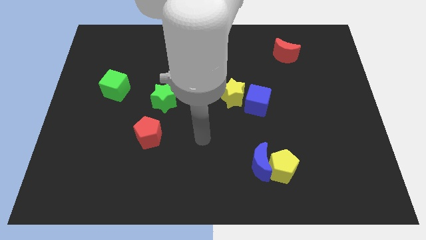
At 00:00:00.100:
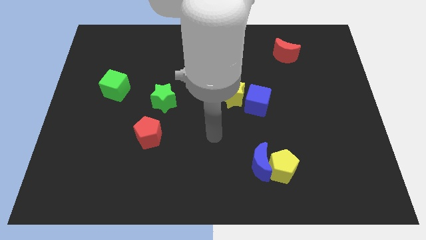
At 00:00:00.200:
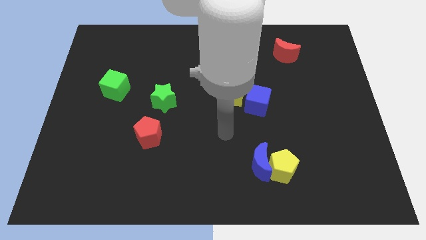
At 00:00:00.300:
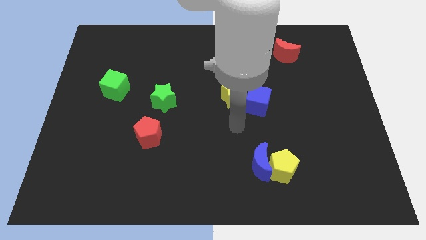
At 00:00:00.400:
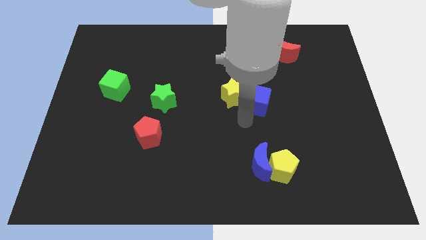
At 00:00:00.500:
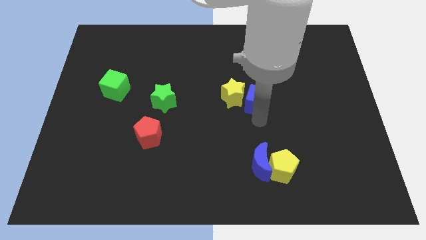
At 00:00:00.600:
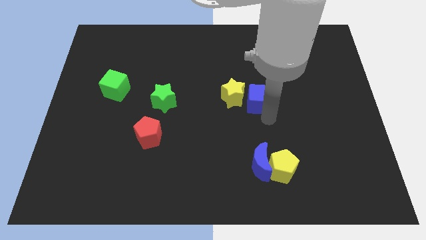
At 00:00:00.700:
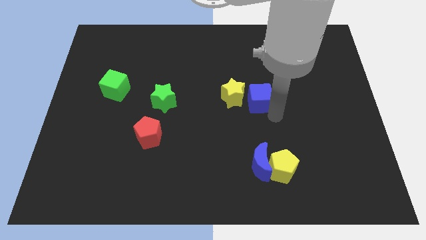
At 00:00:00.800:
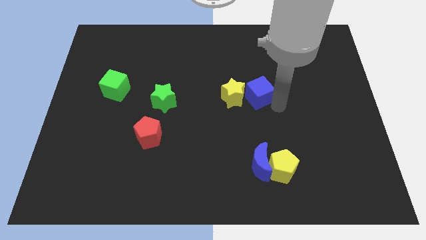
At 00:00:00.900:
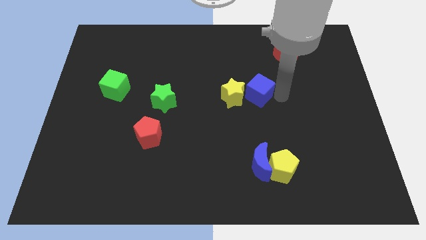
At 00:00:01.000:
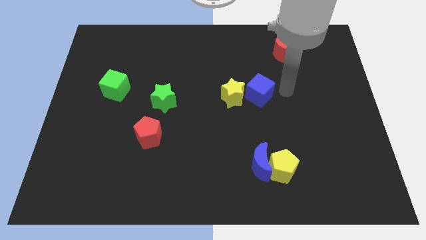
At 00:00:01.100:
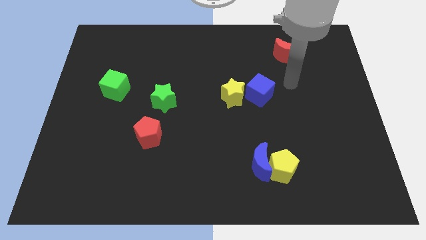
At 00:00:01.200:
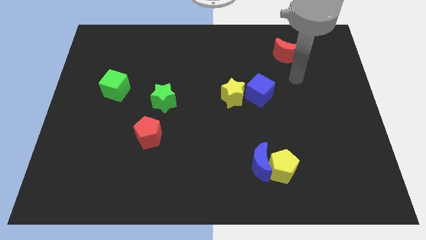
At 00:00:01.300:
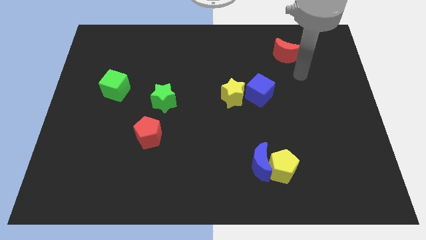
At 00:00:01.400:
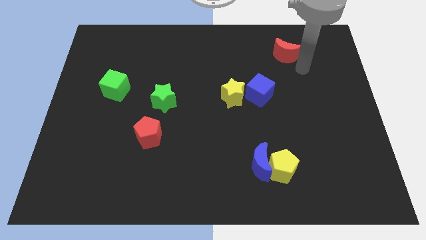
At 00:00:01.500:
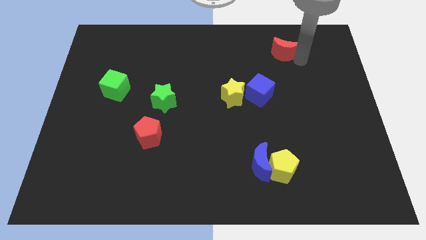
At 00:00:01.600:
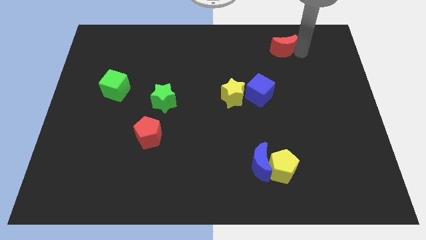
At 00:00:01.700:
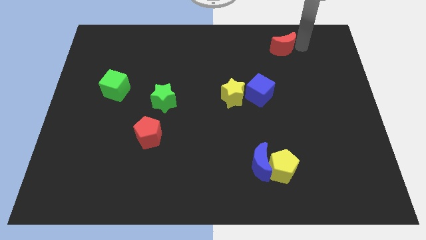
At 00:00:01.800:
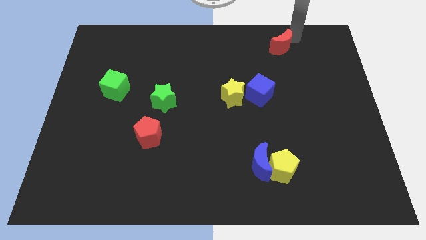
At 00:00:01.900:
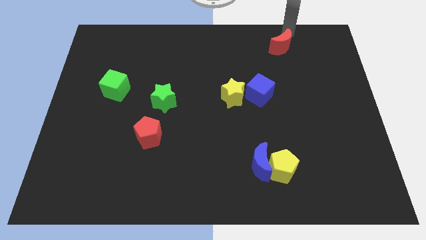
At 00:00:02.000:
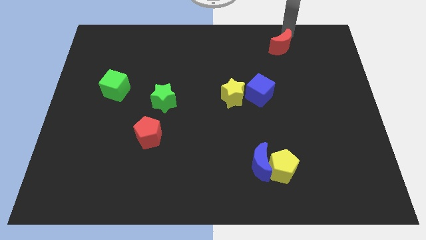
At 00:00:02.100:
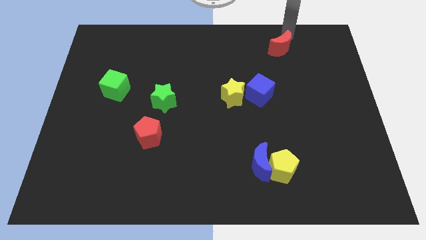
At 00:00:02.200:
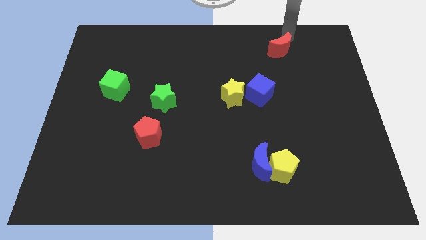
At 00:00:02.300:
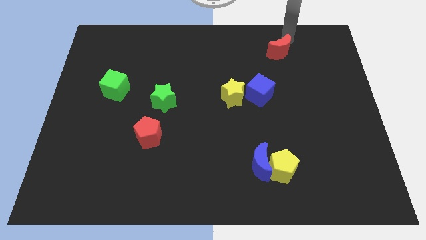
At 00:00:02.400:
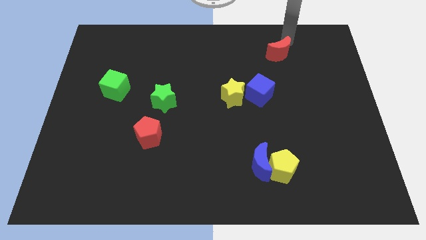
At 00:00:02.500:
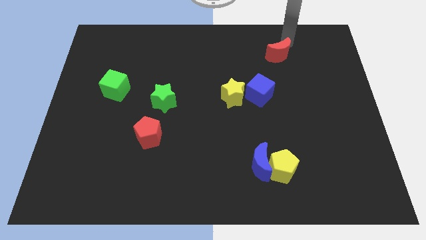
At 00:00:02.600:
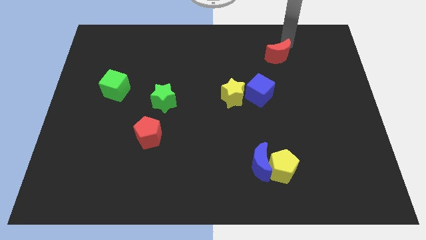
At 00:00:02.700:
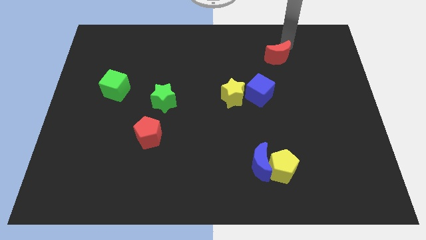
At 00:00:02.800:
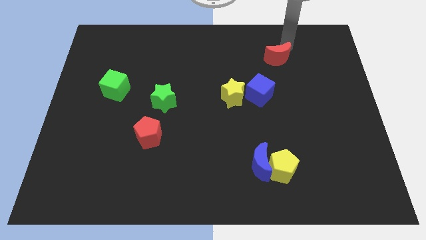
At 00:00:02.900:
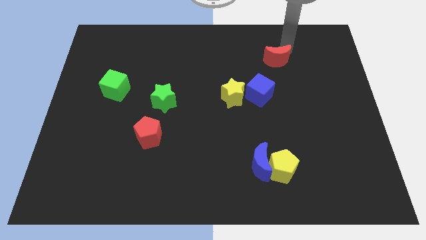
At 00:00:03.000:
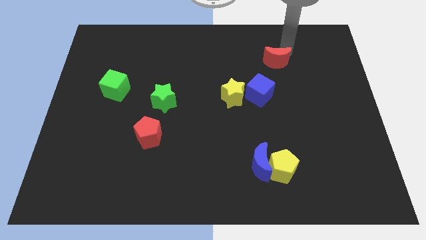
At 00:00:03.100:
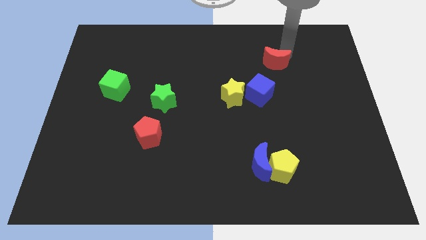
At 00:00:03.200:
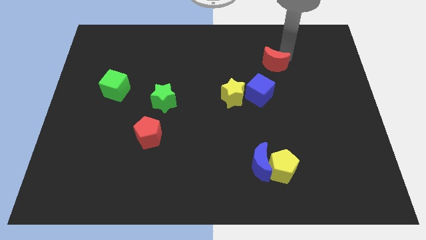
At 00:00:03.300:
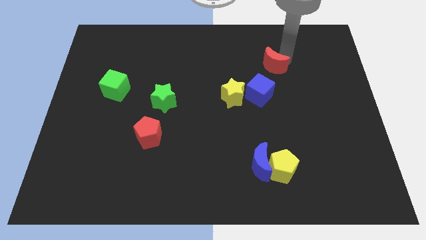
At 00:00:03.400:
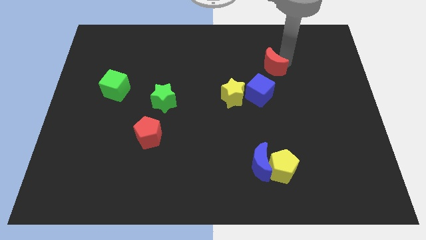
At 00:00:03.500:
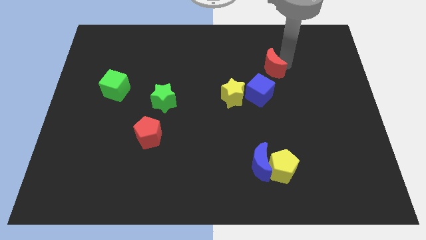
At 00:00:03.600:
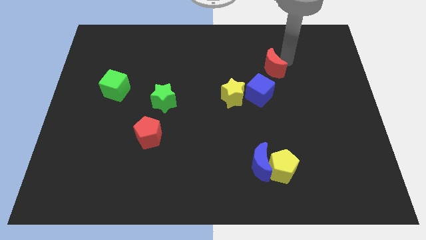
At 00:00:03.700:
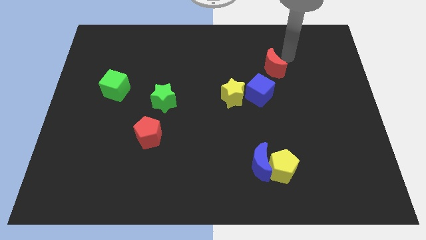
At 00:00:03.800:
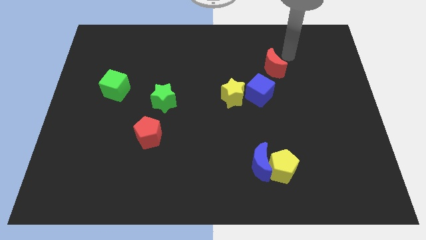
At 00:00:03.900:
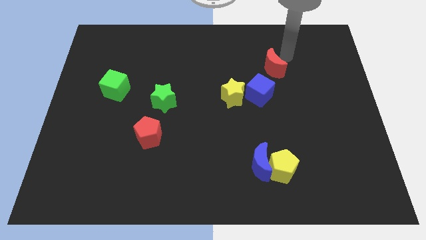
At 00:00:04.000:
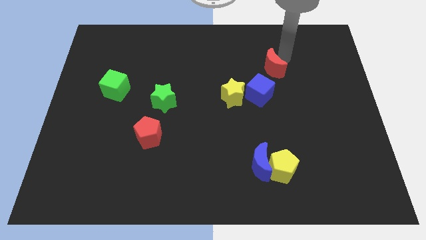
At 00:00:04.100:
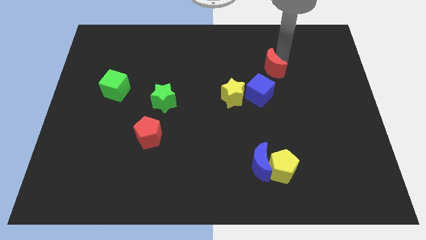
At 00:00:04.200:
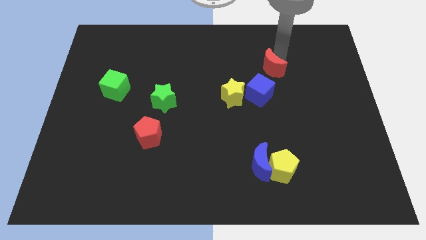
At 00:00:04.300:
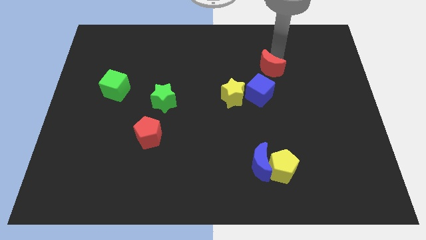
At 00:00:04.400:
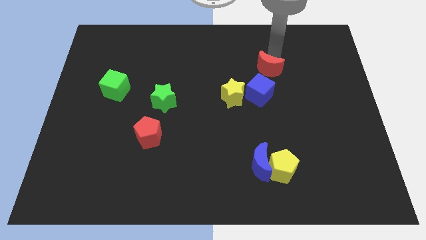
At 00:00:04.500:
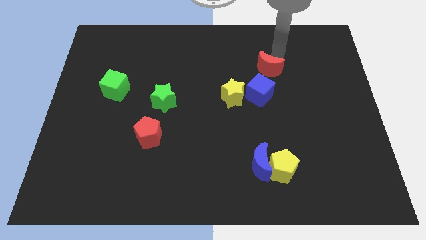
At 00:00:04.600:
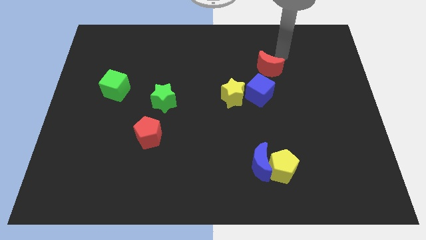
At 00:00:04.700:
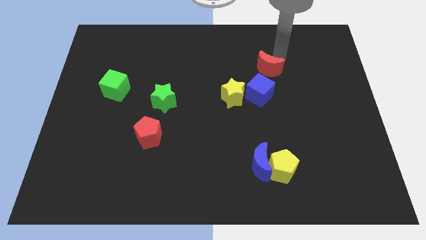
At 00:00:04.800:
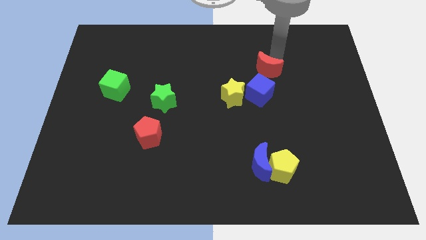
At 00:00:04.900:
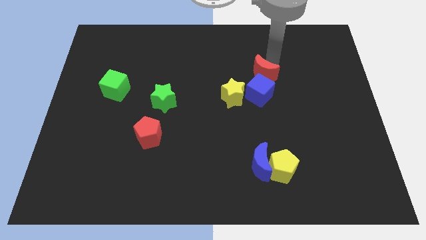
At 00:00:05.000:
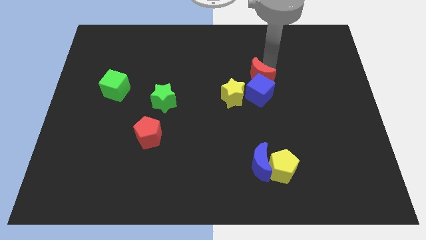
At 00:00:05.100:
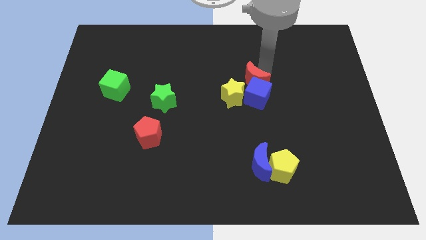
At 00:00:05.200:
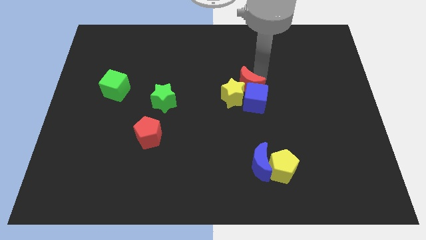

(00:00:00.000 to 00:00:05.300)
move the red moon next to the yellow star

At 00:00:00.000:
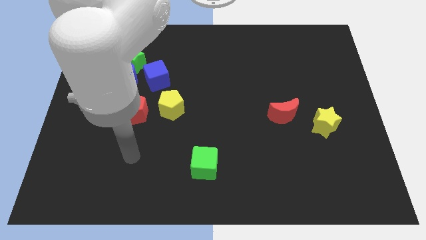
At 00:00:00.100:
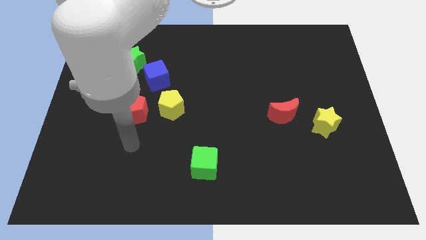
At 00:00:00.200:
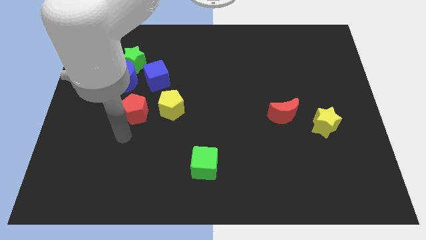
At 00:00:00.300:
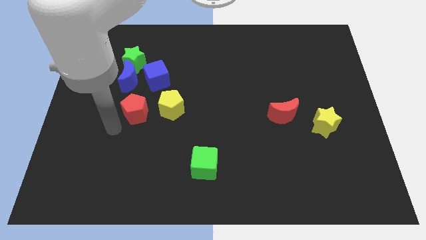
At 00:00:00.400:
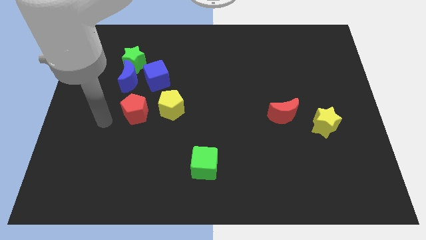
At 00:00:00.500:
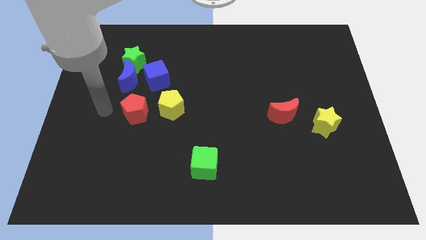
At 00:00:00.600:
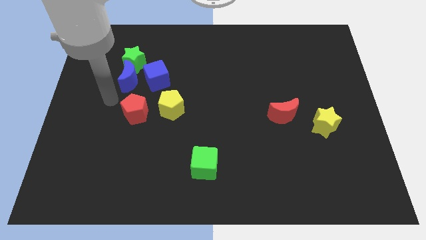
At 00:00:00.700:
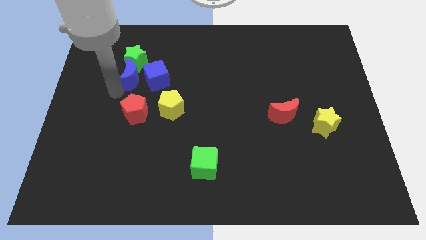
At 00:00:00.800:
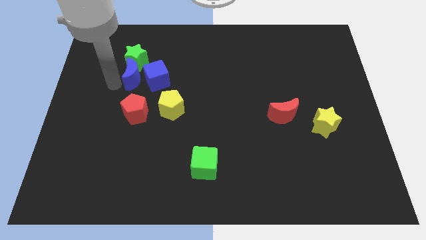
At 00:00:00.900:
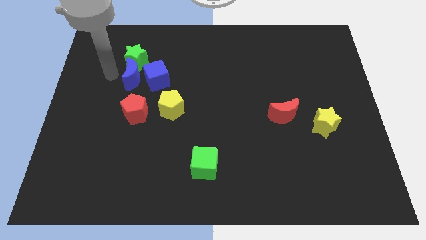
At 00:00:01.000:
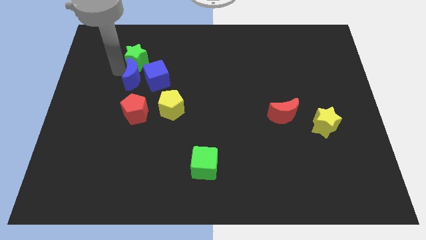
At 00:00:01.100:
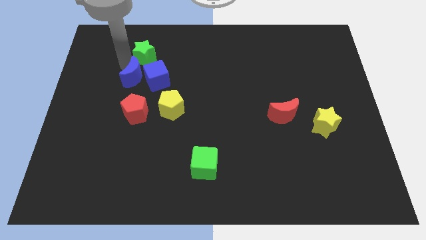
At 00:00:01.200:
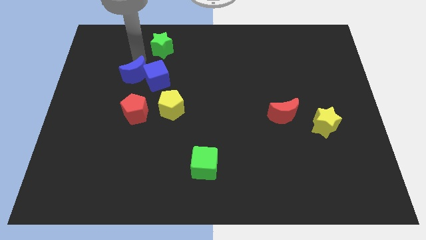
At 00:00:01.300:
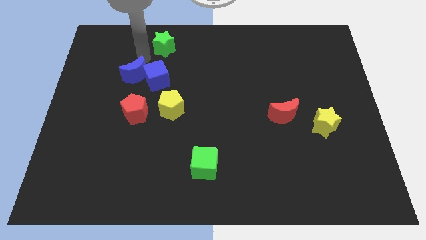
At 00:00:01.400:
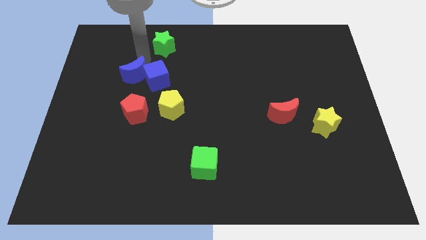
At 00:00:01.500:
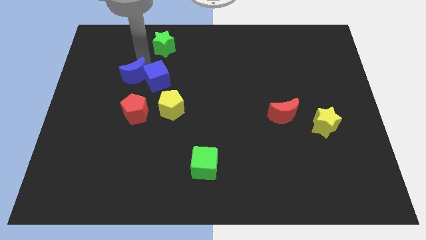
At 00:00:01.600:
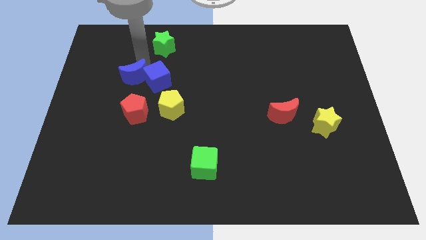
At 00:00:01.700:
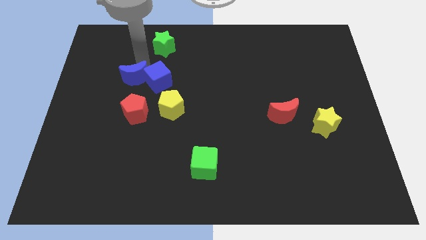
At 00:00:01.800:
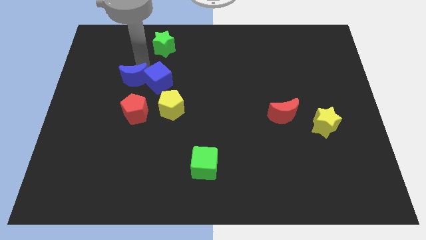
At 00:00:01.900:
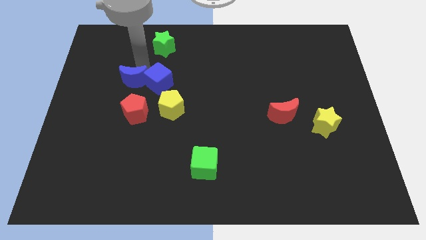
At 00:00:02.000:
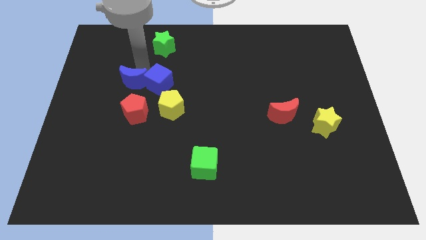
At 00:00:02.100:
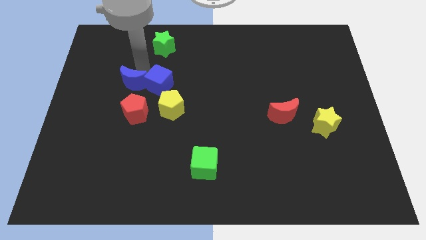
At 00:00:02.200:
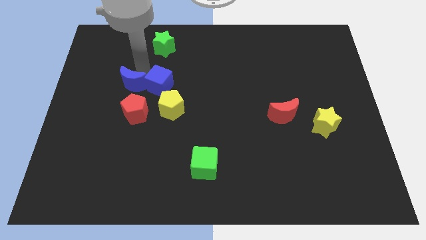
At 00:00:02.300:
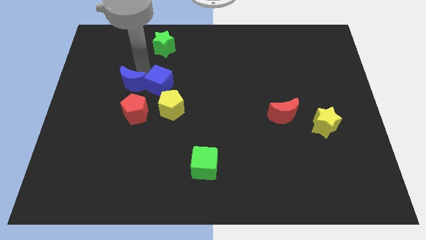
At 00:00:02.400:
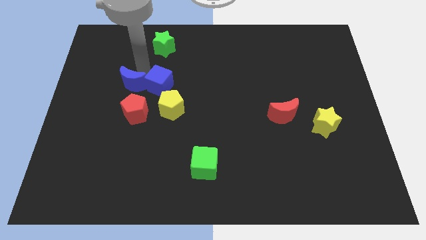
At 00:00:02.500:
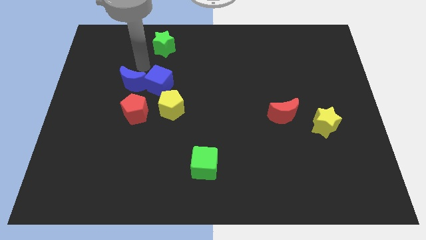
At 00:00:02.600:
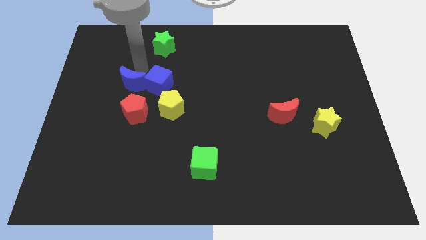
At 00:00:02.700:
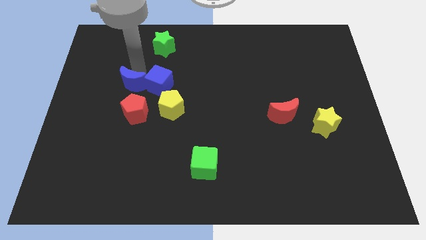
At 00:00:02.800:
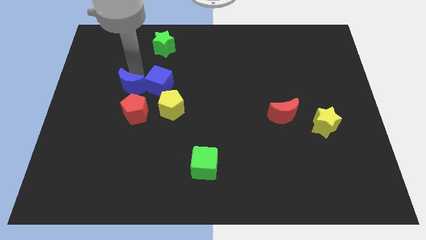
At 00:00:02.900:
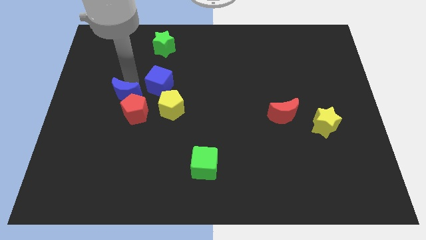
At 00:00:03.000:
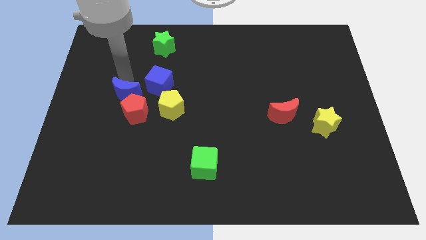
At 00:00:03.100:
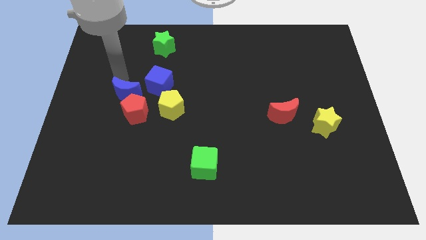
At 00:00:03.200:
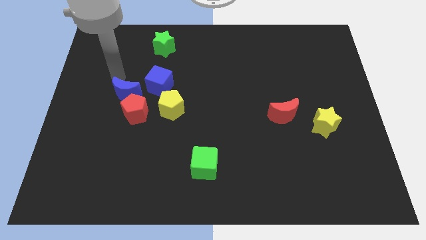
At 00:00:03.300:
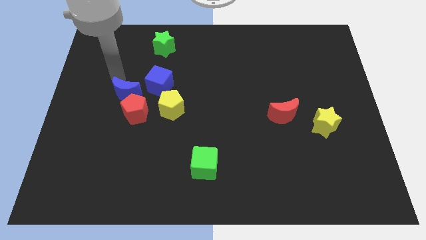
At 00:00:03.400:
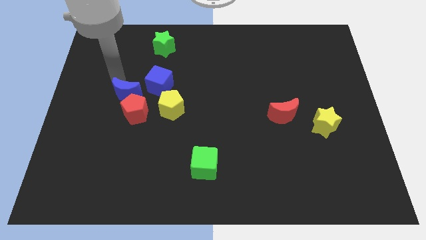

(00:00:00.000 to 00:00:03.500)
move the blue moon next to the red pentagon
